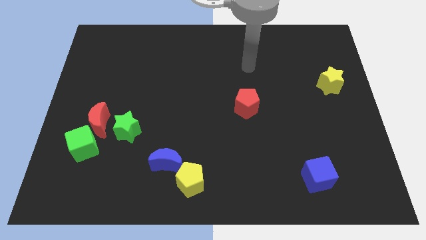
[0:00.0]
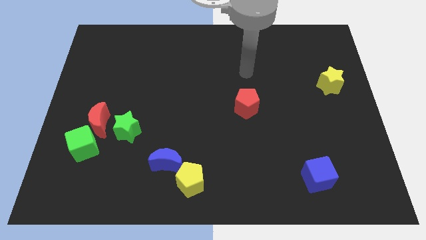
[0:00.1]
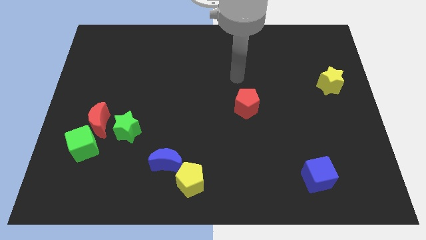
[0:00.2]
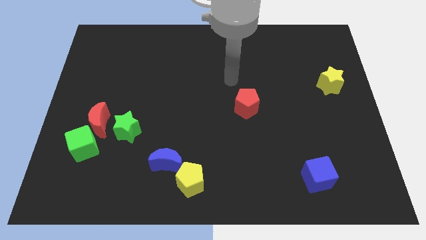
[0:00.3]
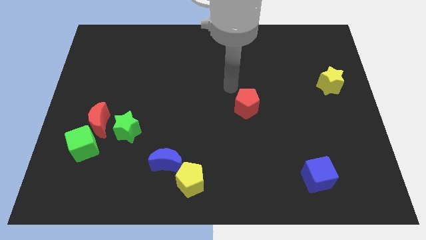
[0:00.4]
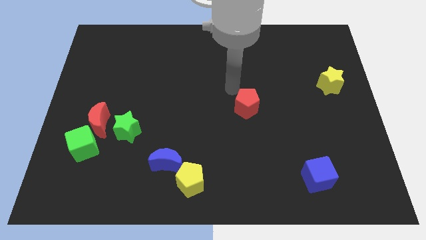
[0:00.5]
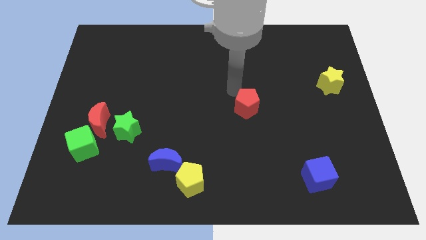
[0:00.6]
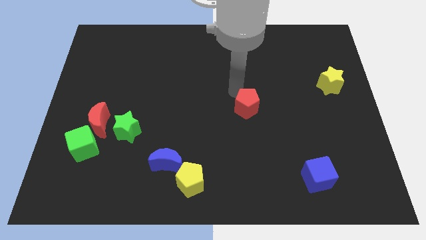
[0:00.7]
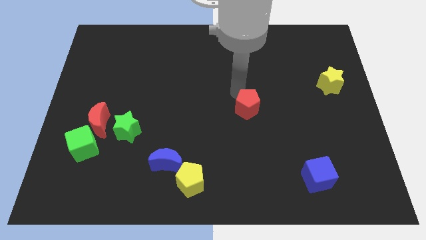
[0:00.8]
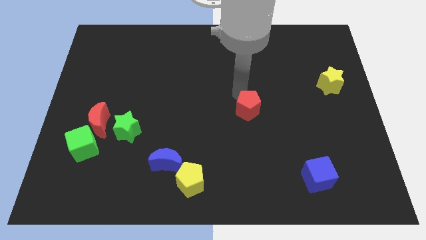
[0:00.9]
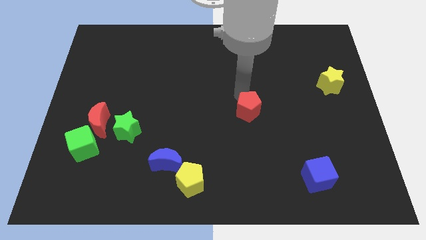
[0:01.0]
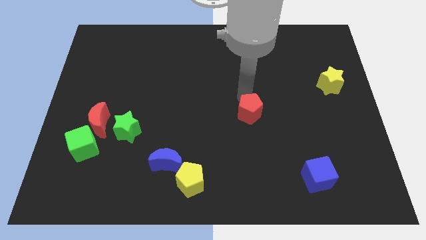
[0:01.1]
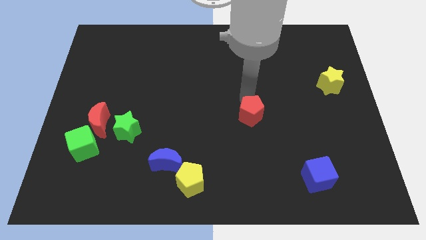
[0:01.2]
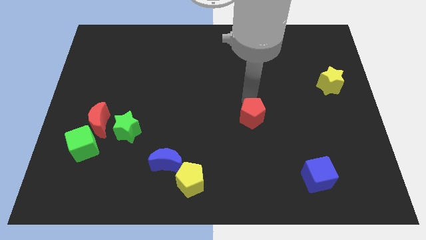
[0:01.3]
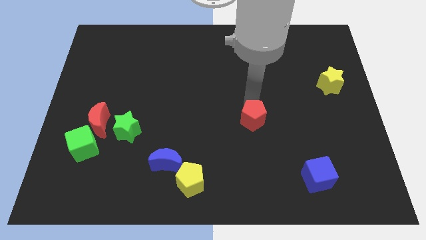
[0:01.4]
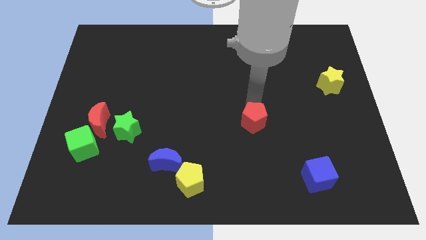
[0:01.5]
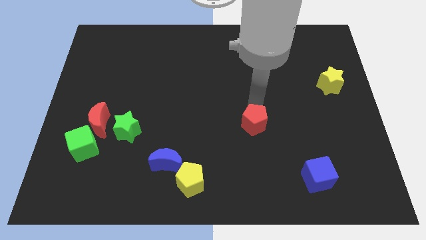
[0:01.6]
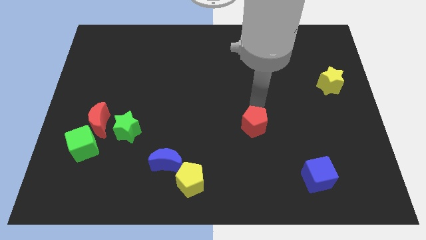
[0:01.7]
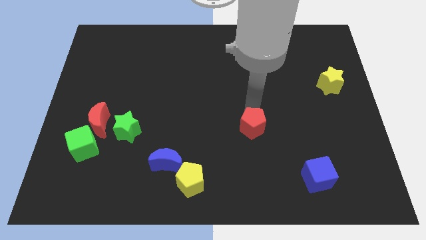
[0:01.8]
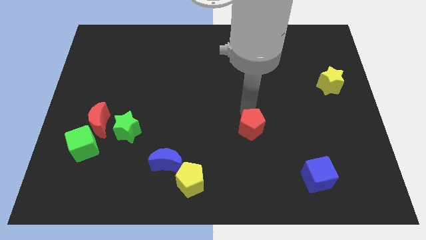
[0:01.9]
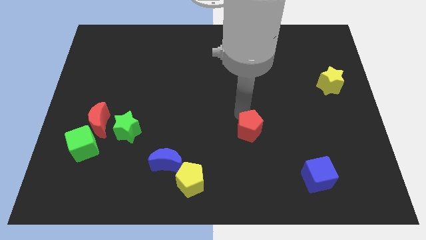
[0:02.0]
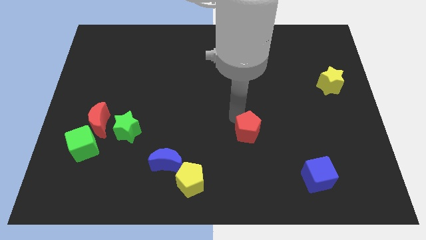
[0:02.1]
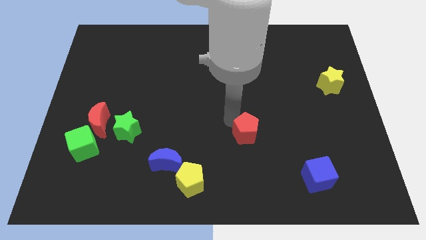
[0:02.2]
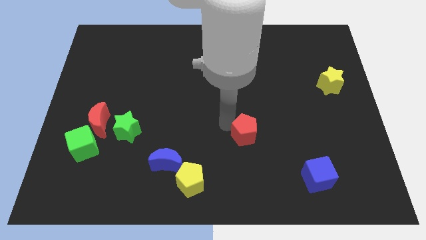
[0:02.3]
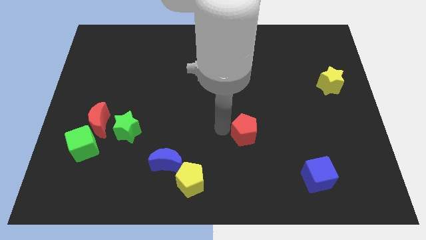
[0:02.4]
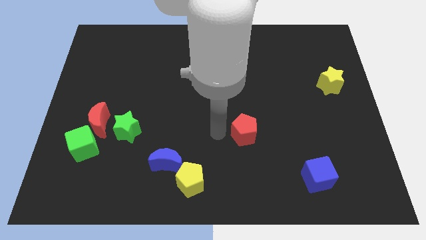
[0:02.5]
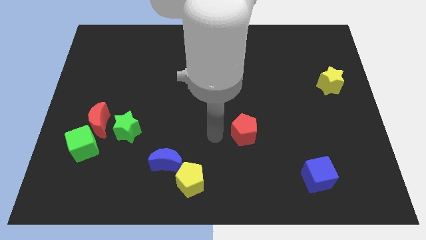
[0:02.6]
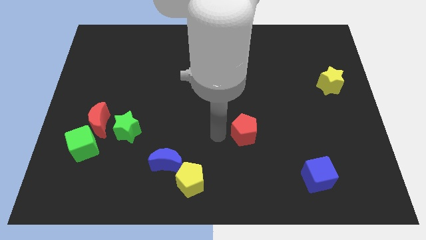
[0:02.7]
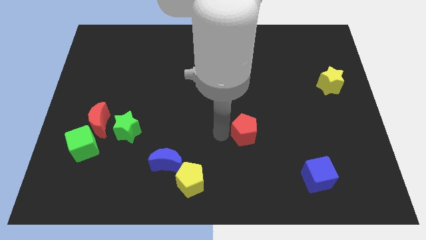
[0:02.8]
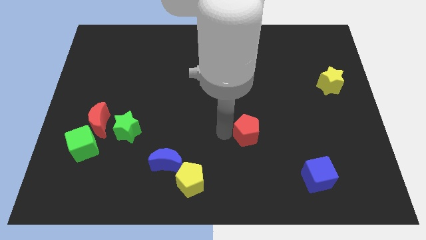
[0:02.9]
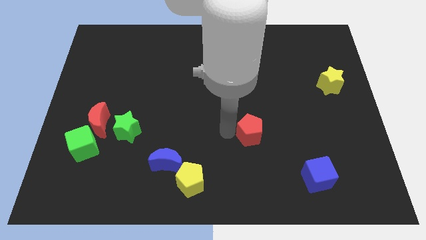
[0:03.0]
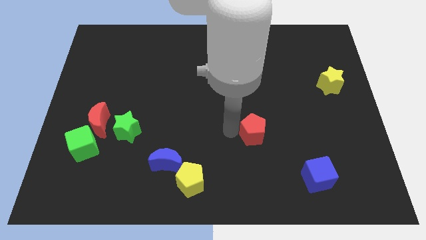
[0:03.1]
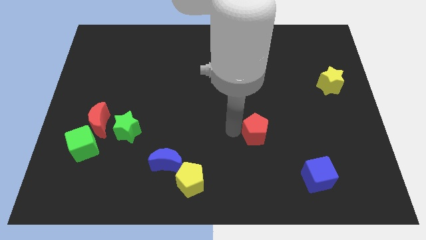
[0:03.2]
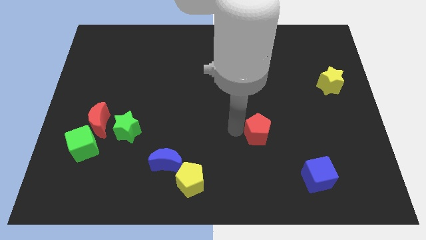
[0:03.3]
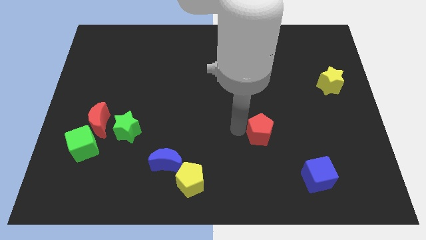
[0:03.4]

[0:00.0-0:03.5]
slightly push the red pentagon down and to the right

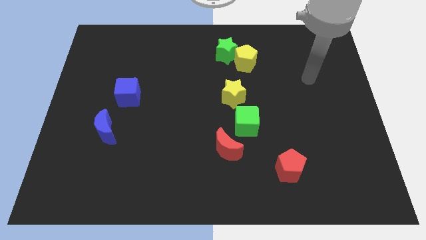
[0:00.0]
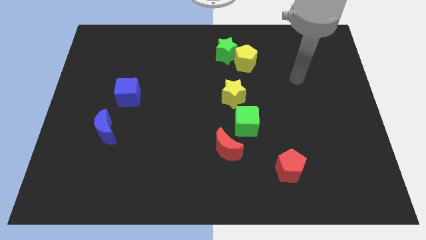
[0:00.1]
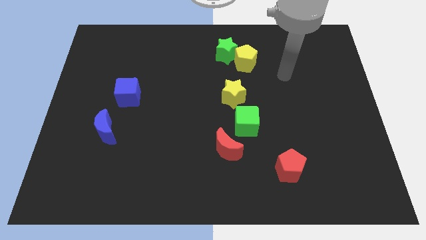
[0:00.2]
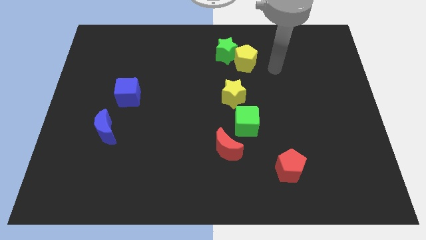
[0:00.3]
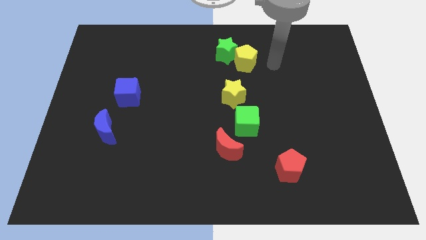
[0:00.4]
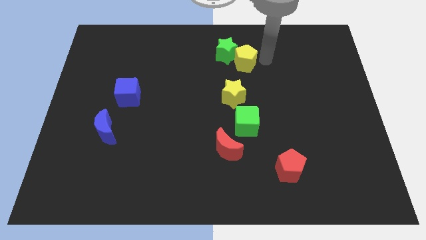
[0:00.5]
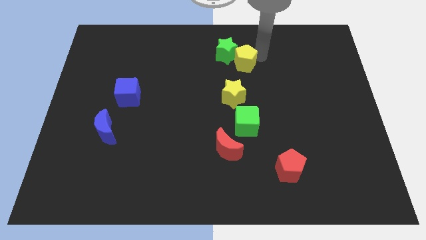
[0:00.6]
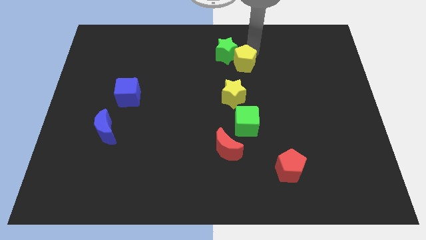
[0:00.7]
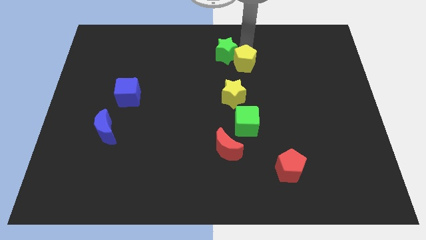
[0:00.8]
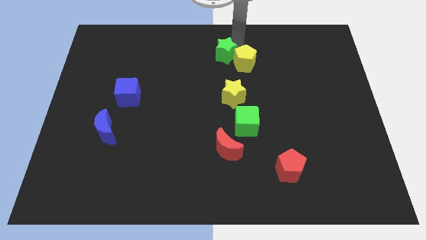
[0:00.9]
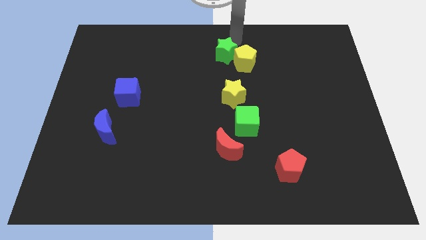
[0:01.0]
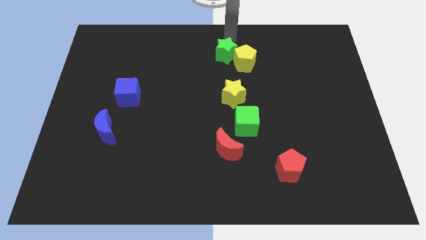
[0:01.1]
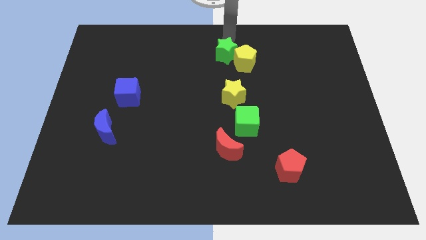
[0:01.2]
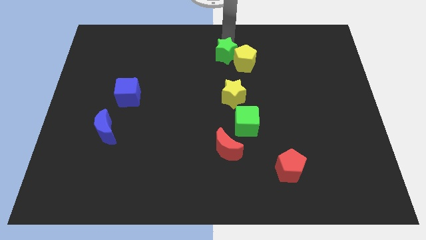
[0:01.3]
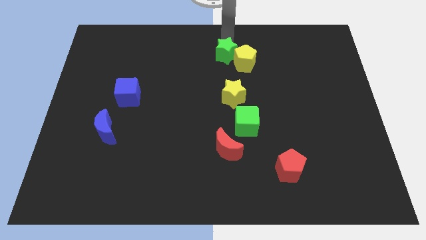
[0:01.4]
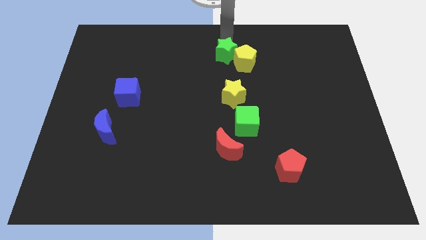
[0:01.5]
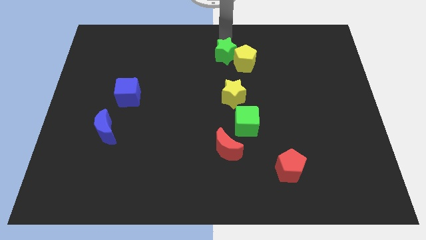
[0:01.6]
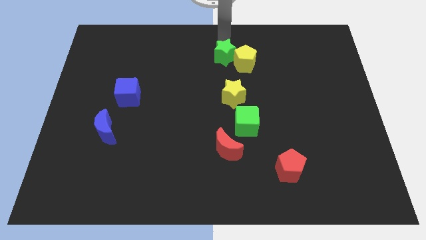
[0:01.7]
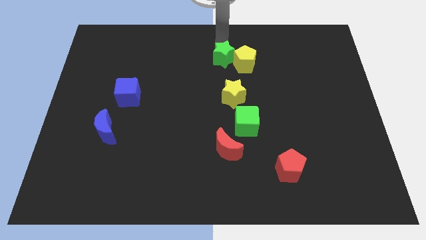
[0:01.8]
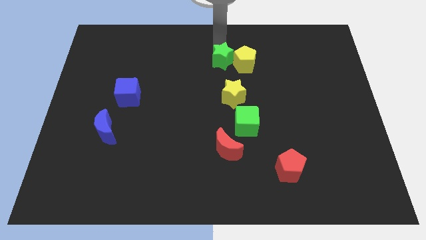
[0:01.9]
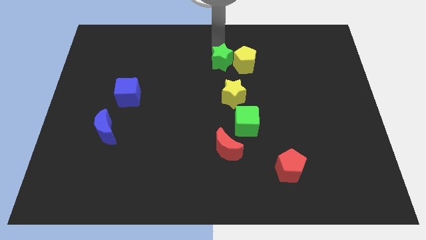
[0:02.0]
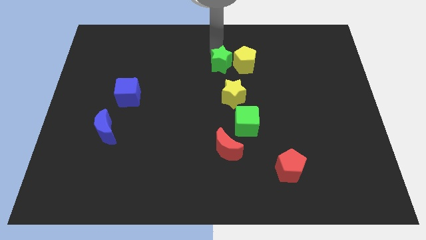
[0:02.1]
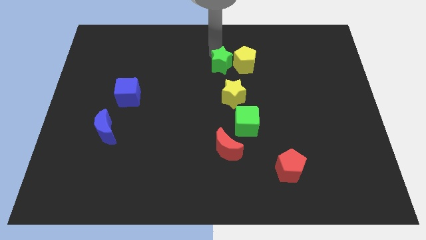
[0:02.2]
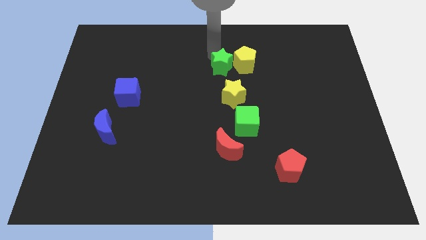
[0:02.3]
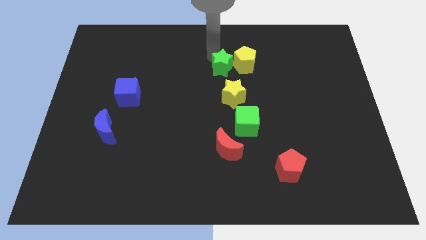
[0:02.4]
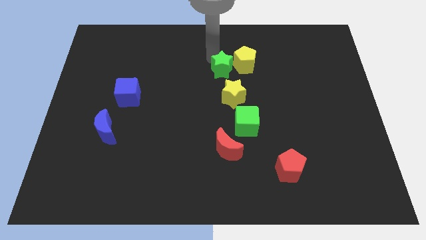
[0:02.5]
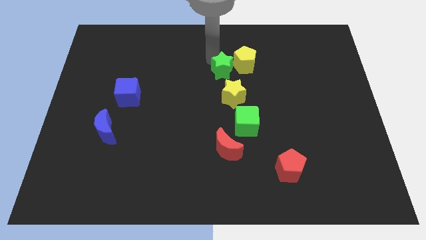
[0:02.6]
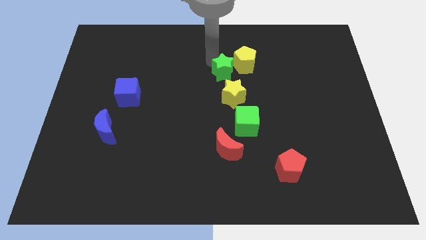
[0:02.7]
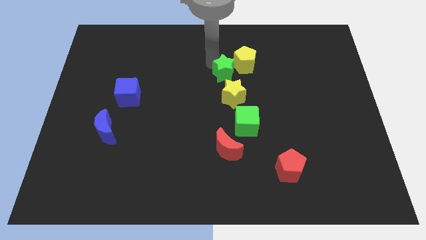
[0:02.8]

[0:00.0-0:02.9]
slightly push the green star down

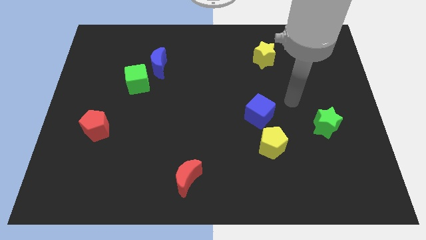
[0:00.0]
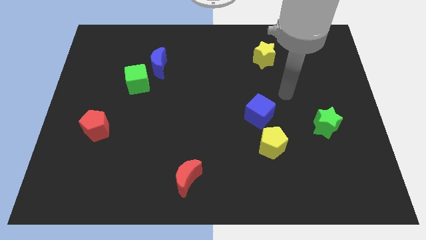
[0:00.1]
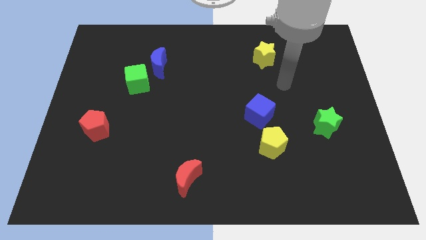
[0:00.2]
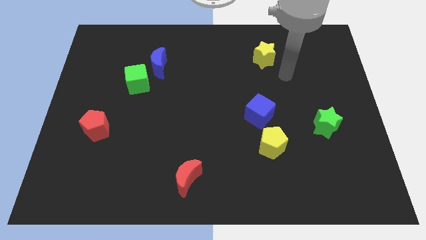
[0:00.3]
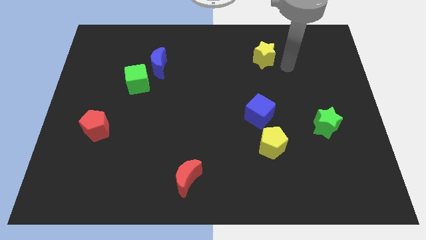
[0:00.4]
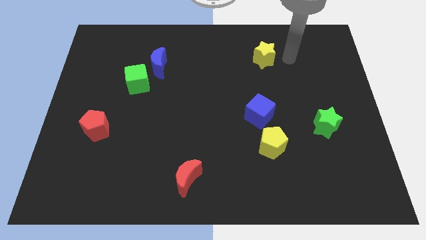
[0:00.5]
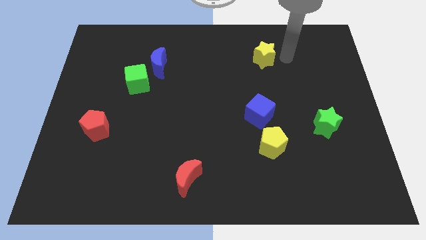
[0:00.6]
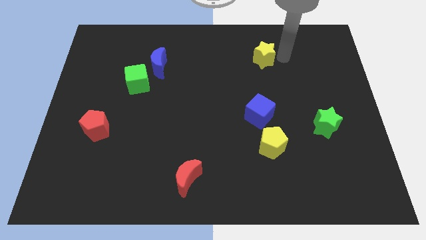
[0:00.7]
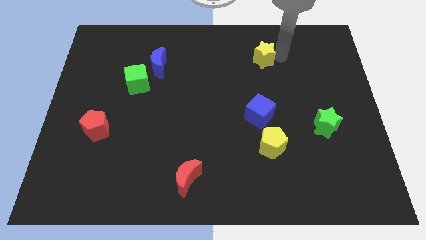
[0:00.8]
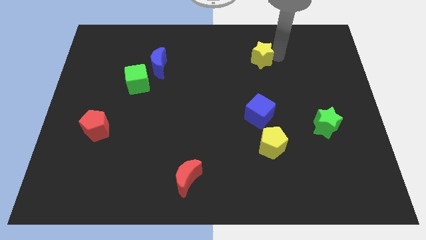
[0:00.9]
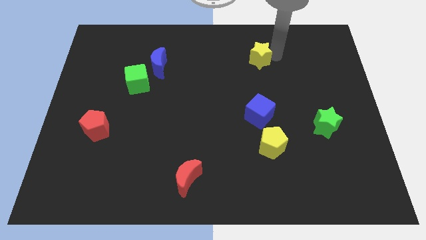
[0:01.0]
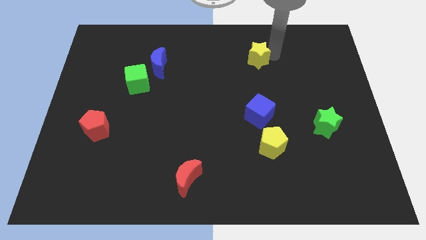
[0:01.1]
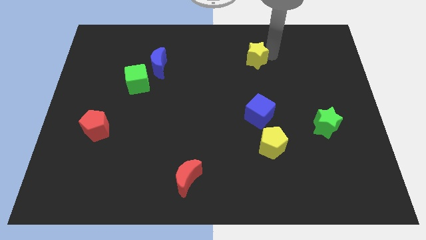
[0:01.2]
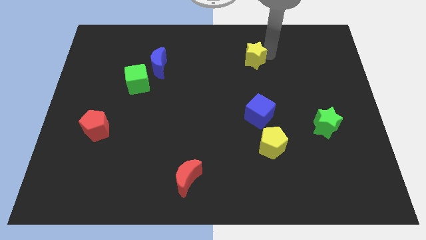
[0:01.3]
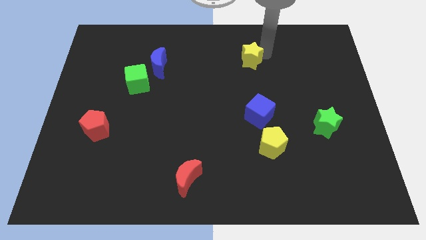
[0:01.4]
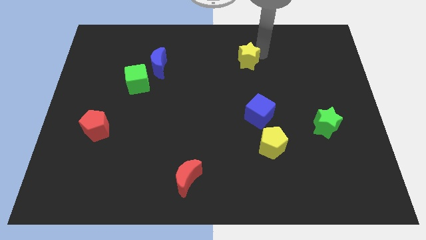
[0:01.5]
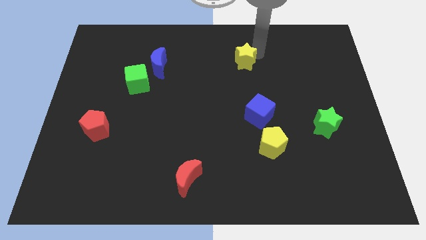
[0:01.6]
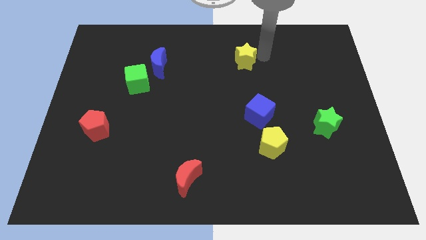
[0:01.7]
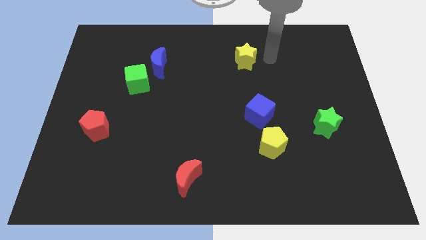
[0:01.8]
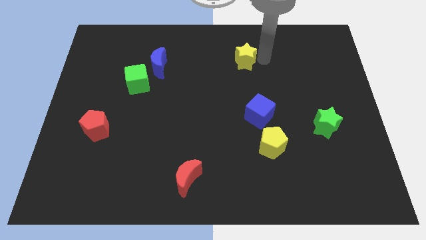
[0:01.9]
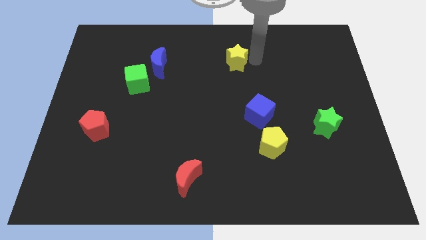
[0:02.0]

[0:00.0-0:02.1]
slide the yellow star a little left
